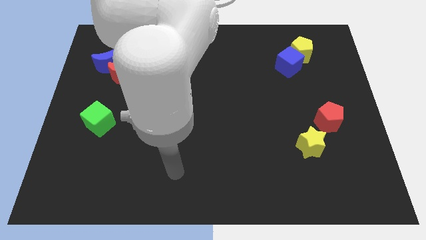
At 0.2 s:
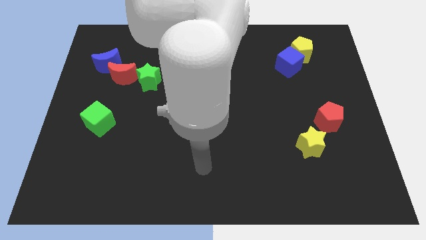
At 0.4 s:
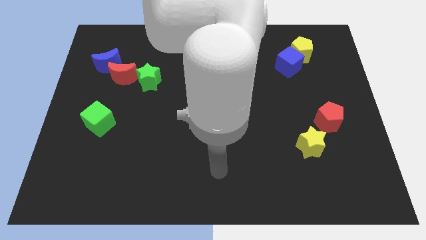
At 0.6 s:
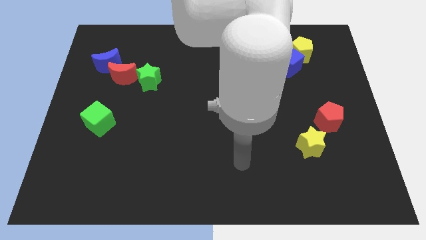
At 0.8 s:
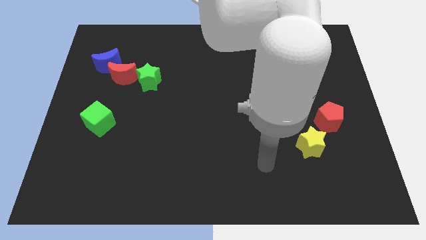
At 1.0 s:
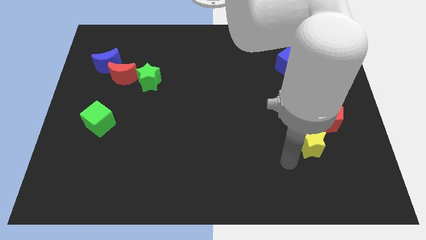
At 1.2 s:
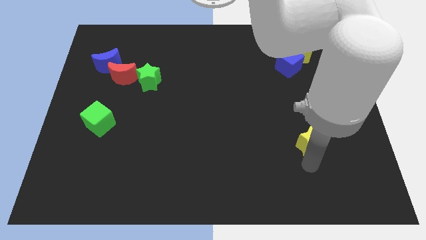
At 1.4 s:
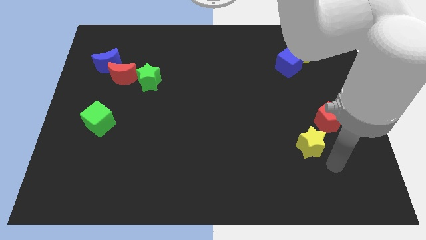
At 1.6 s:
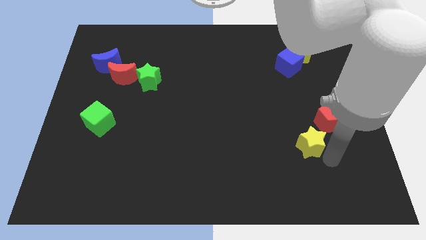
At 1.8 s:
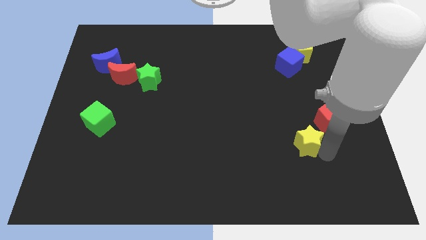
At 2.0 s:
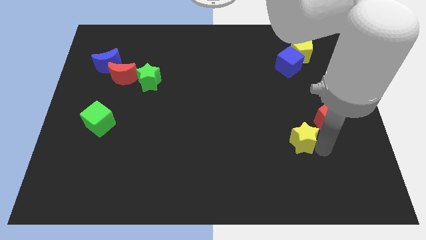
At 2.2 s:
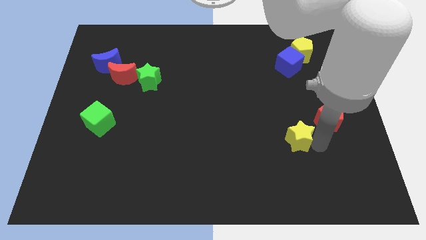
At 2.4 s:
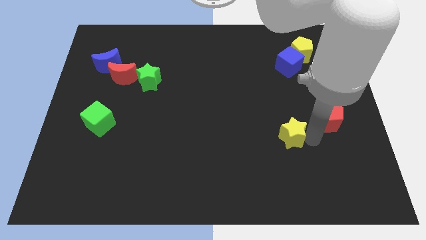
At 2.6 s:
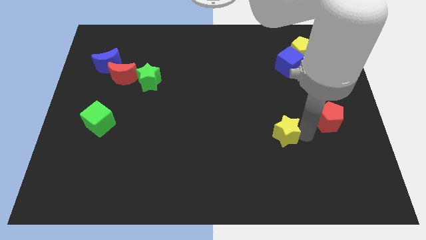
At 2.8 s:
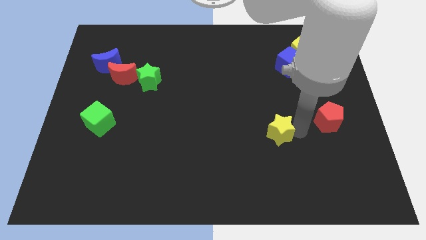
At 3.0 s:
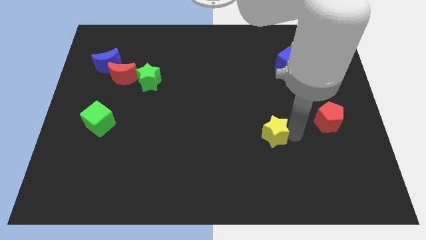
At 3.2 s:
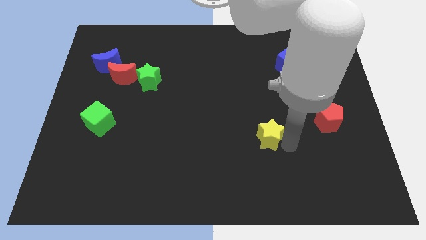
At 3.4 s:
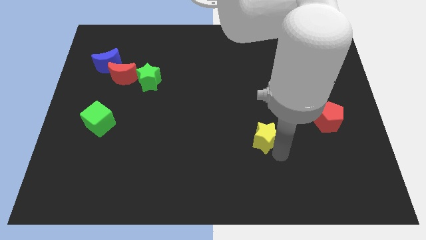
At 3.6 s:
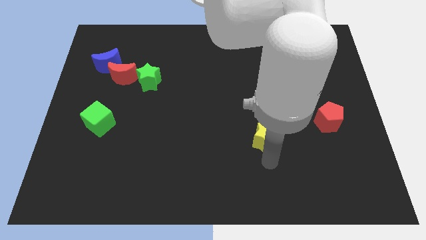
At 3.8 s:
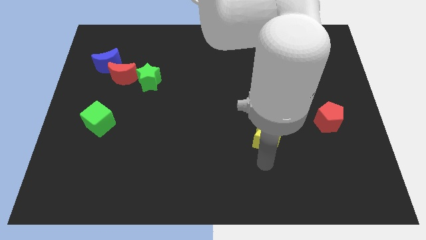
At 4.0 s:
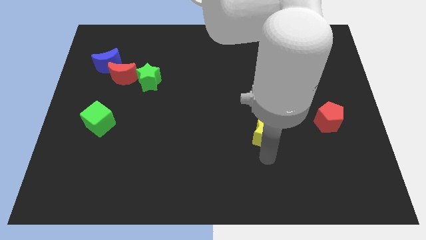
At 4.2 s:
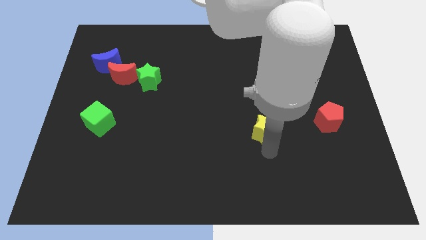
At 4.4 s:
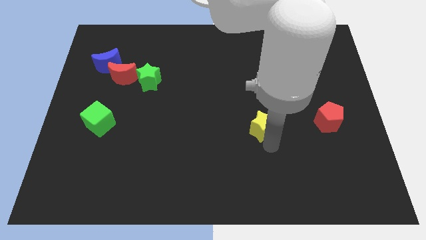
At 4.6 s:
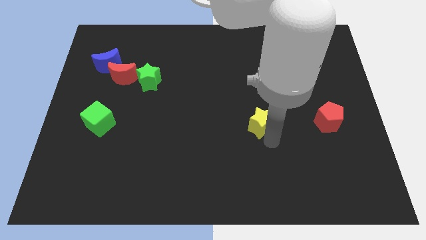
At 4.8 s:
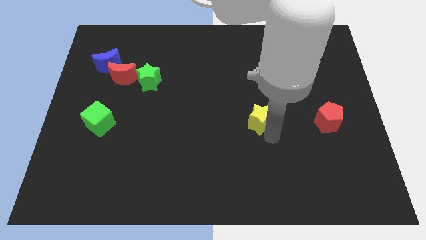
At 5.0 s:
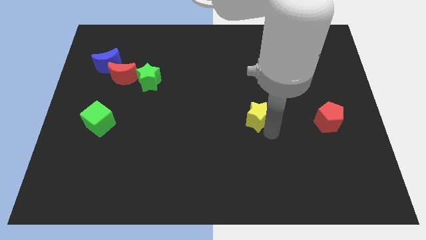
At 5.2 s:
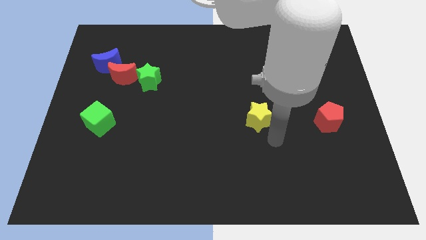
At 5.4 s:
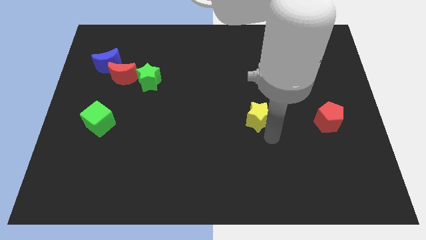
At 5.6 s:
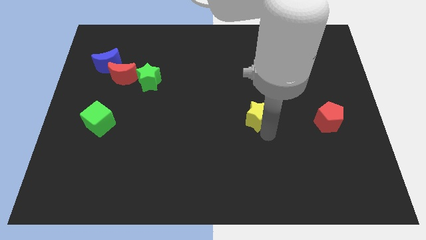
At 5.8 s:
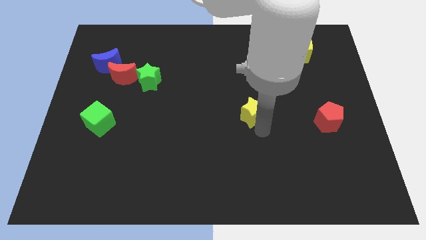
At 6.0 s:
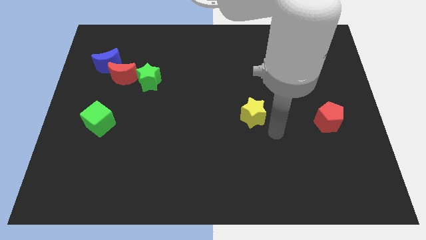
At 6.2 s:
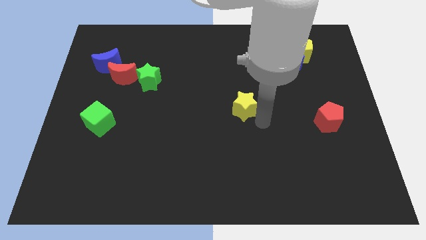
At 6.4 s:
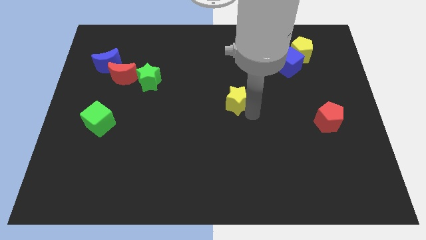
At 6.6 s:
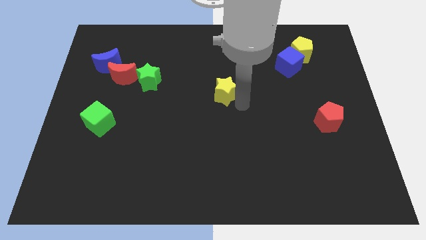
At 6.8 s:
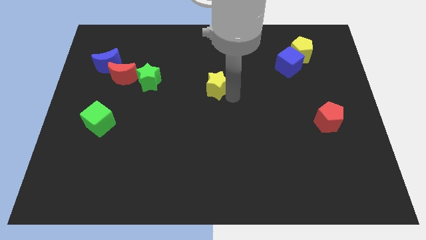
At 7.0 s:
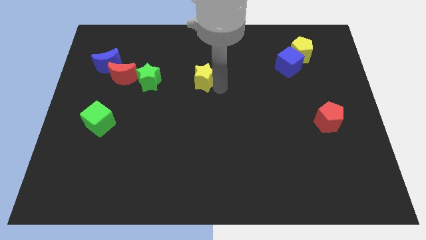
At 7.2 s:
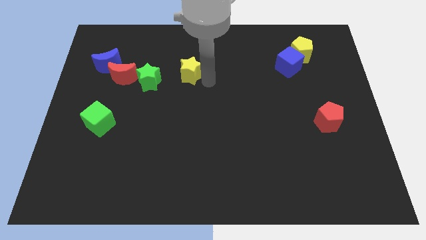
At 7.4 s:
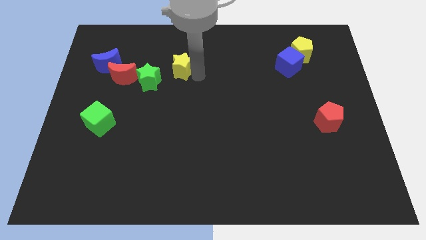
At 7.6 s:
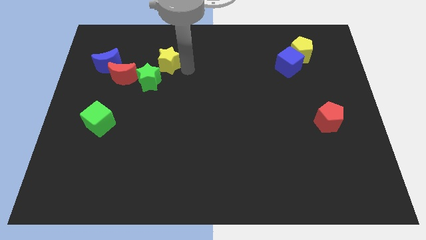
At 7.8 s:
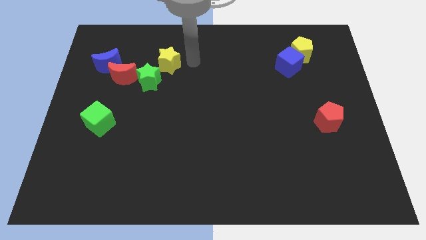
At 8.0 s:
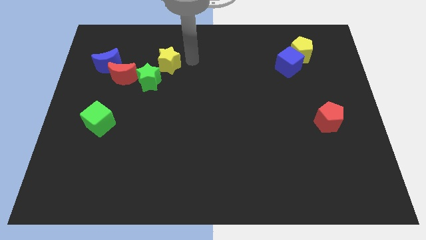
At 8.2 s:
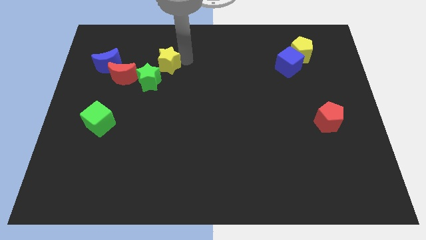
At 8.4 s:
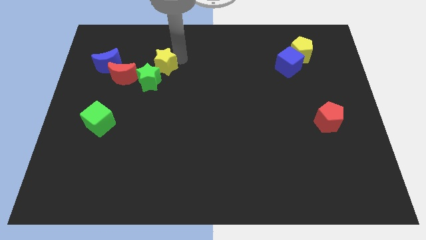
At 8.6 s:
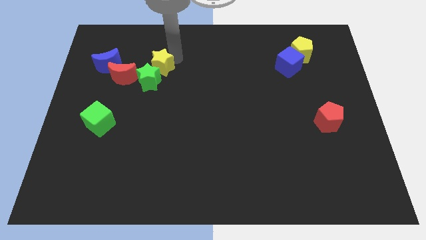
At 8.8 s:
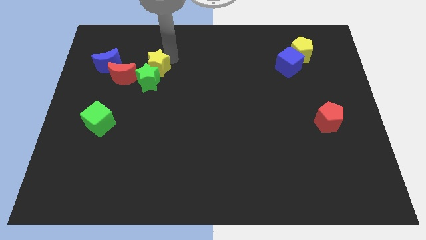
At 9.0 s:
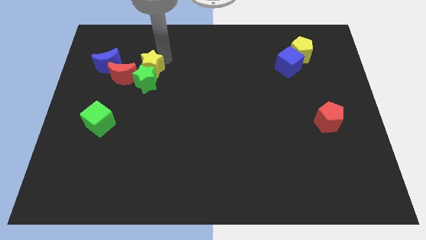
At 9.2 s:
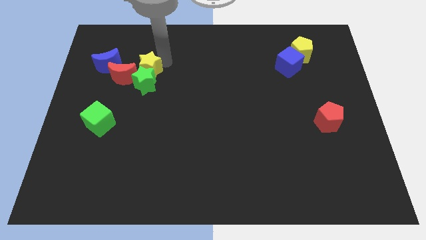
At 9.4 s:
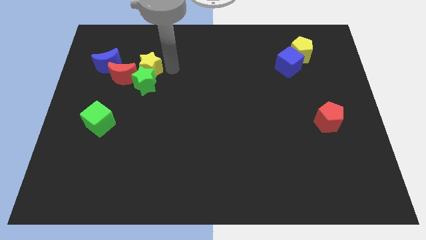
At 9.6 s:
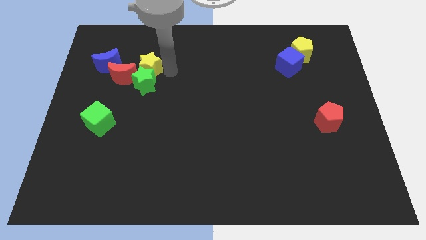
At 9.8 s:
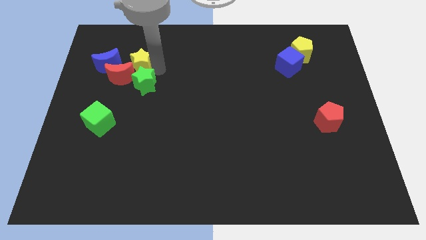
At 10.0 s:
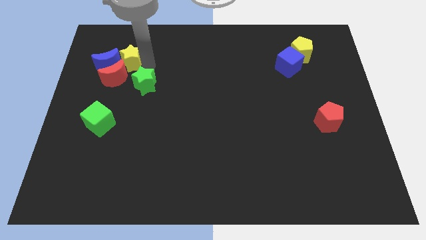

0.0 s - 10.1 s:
push the yellow star close to the blue moon

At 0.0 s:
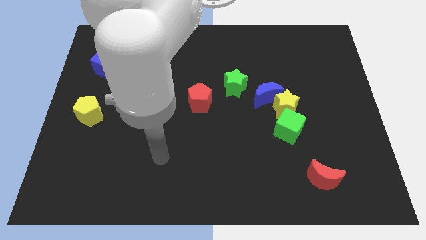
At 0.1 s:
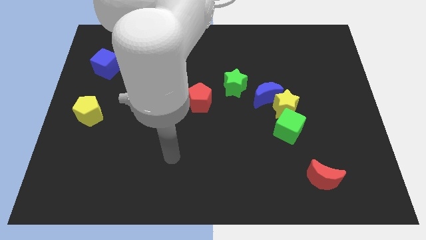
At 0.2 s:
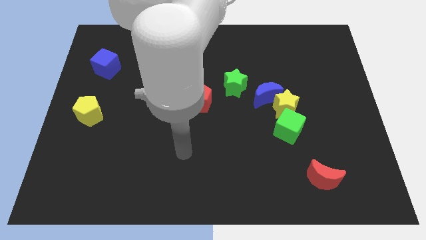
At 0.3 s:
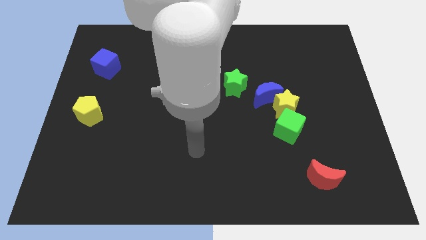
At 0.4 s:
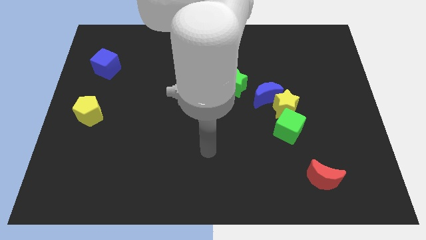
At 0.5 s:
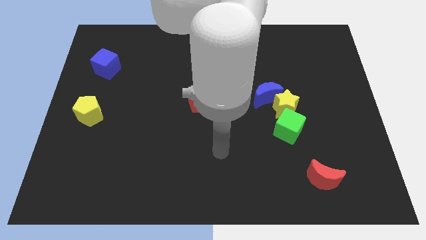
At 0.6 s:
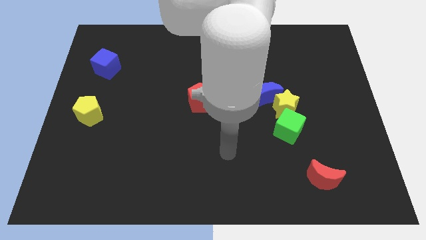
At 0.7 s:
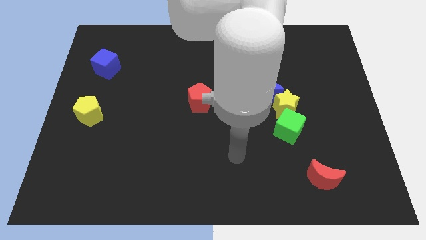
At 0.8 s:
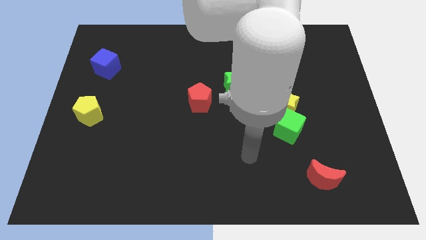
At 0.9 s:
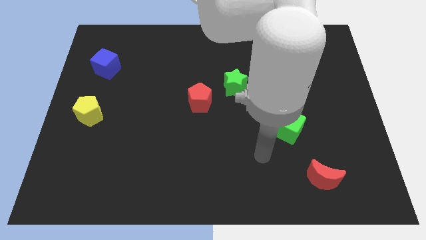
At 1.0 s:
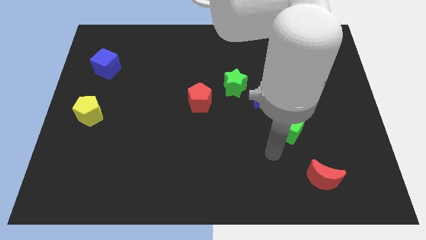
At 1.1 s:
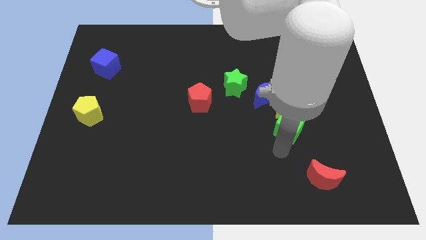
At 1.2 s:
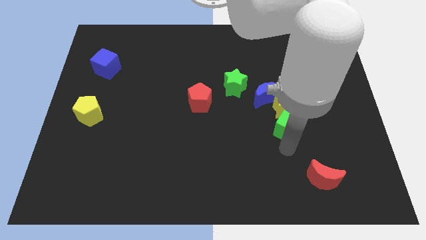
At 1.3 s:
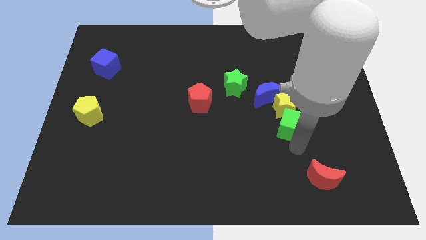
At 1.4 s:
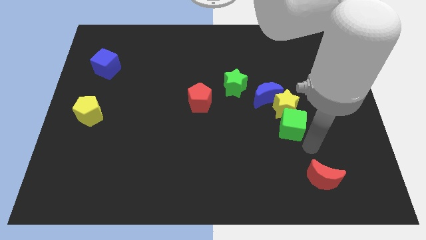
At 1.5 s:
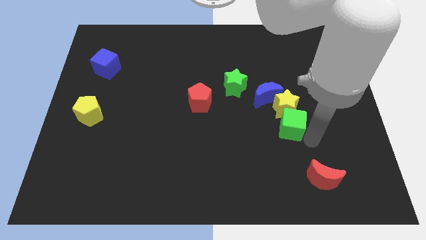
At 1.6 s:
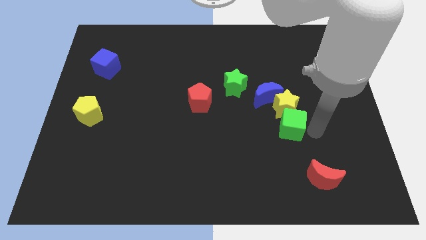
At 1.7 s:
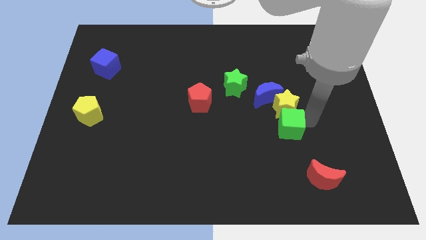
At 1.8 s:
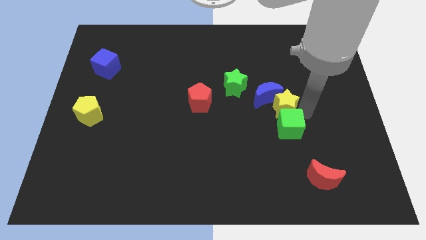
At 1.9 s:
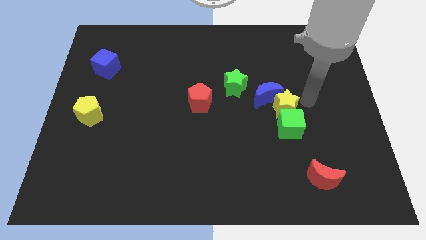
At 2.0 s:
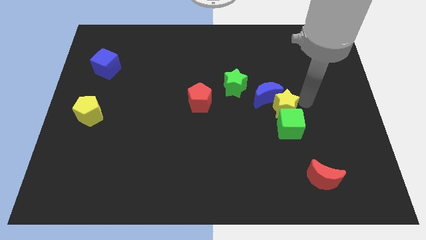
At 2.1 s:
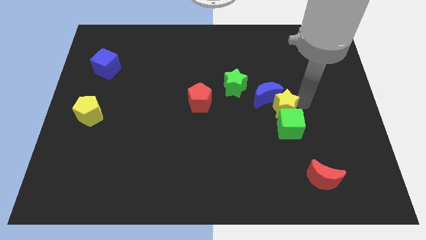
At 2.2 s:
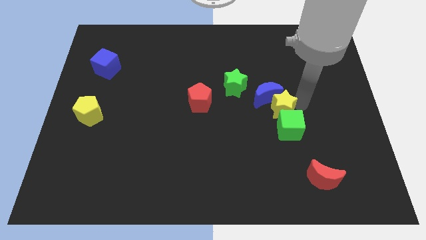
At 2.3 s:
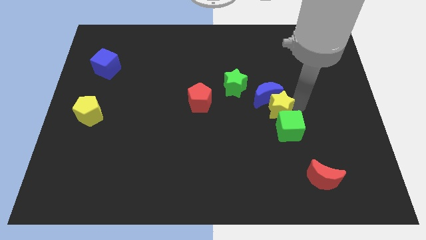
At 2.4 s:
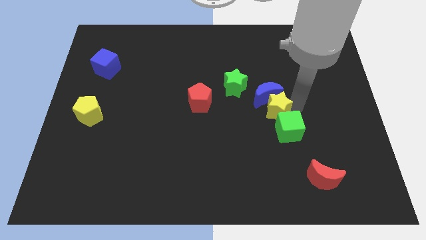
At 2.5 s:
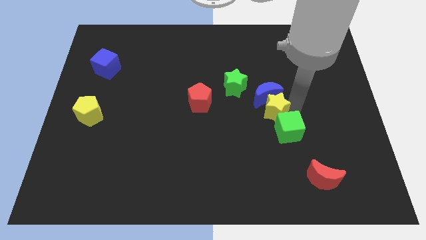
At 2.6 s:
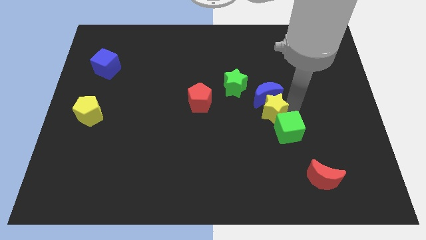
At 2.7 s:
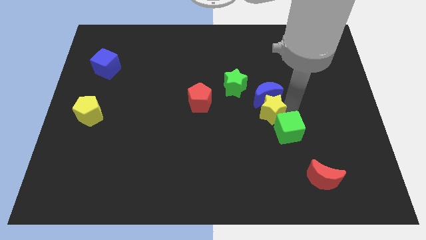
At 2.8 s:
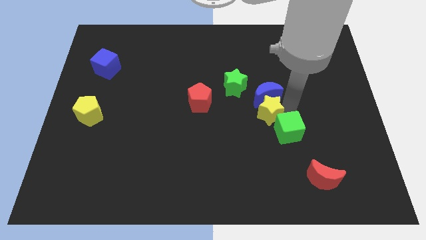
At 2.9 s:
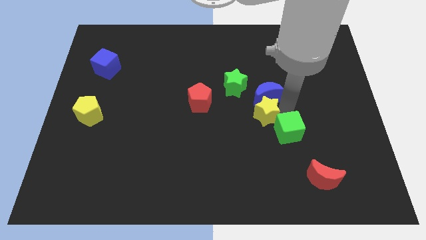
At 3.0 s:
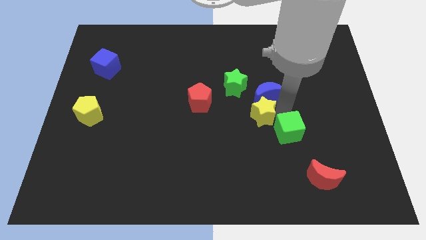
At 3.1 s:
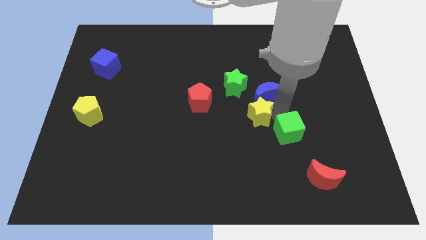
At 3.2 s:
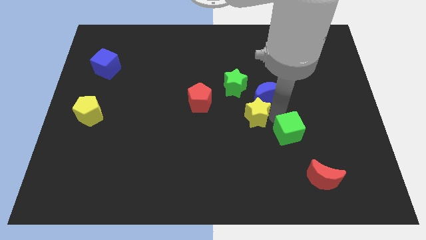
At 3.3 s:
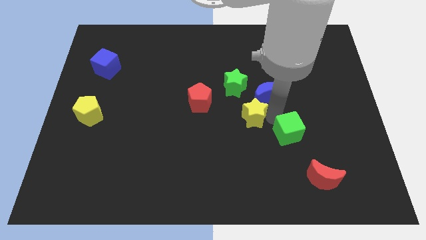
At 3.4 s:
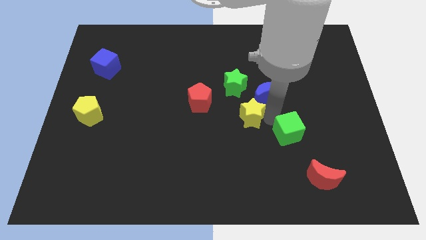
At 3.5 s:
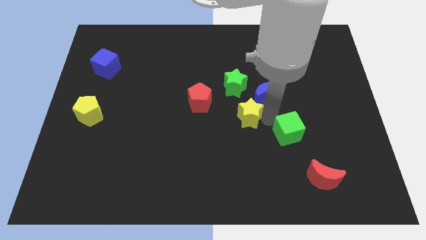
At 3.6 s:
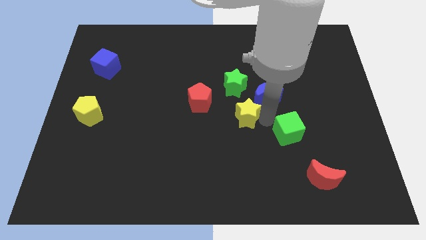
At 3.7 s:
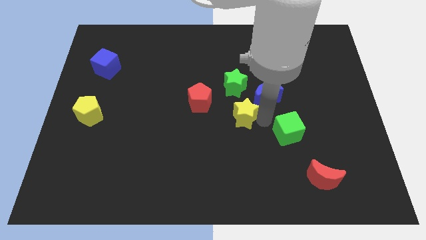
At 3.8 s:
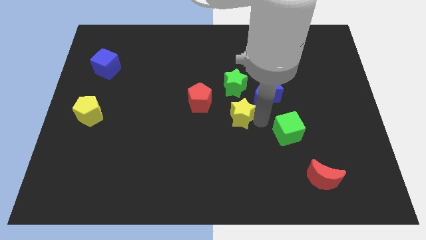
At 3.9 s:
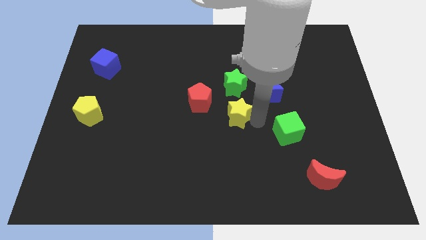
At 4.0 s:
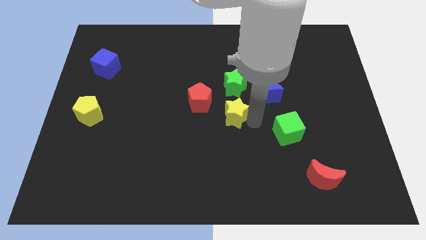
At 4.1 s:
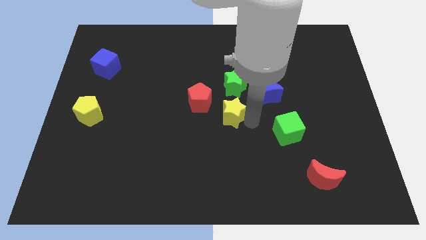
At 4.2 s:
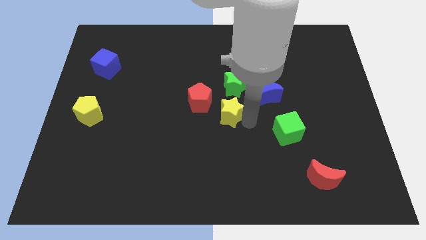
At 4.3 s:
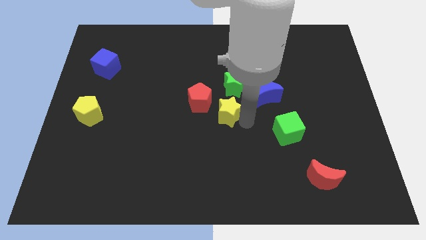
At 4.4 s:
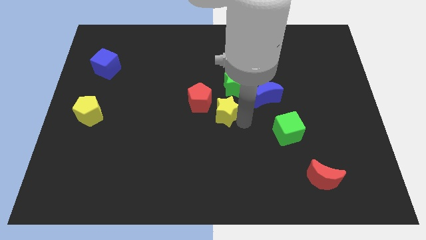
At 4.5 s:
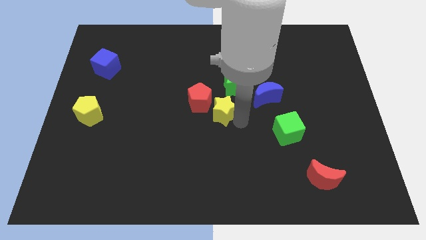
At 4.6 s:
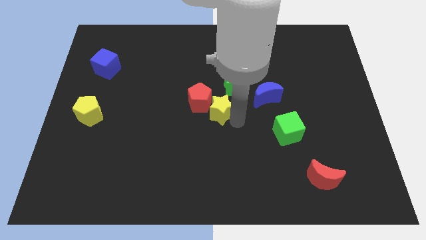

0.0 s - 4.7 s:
put the yellow star to the red pentagon
